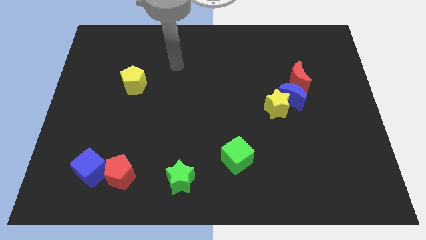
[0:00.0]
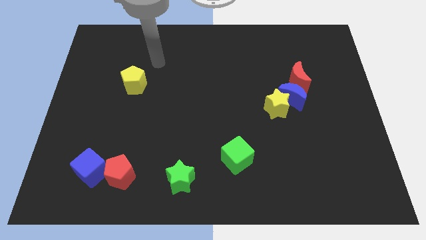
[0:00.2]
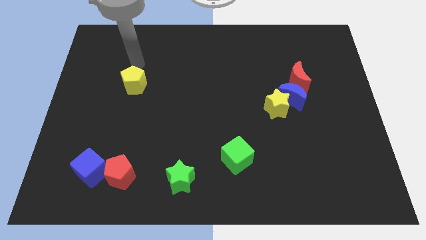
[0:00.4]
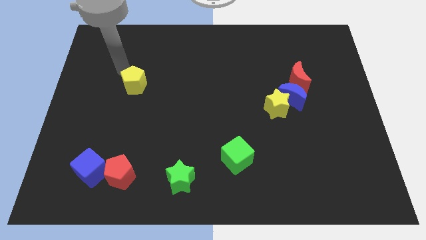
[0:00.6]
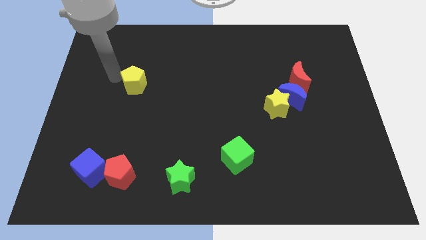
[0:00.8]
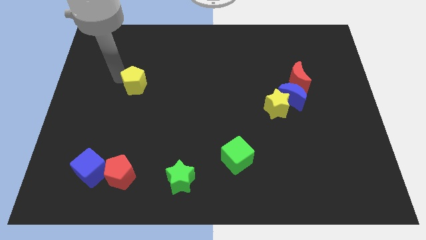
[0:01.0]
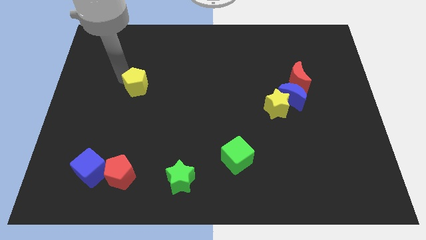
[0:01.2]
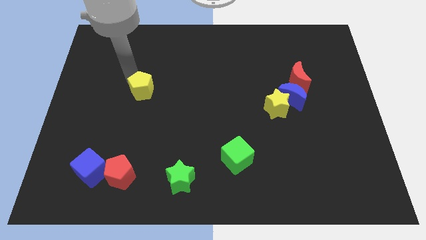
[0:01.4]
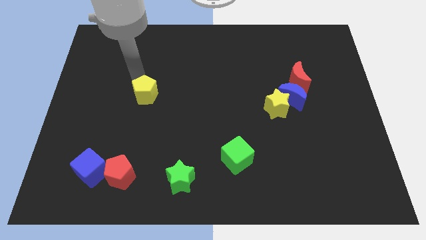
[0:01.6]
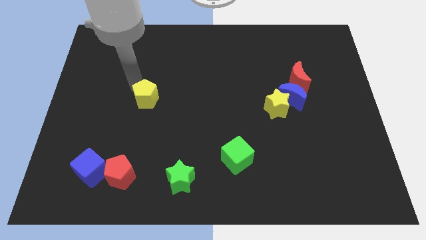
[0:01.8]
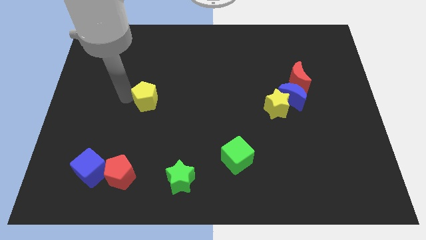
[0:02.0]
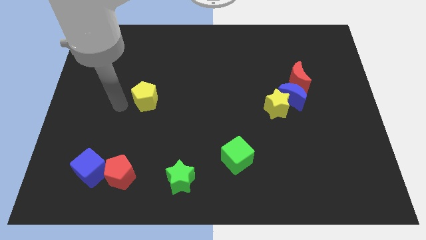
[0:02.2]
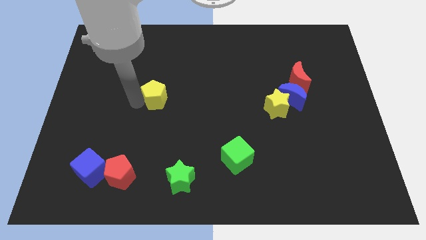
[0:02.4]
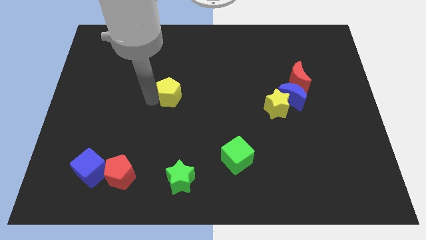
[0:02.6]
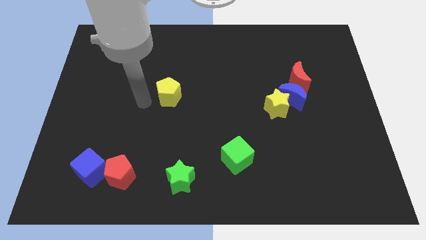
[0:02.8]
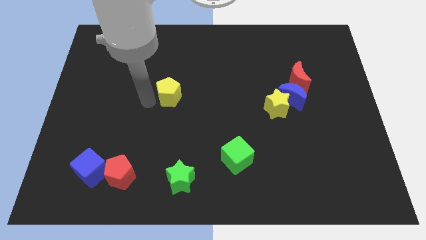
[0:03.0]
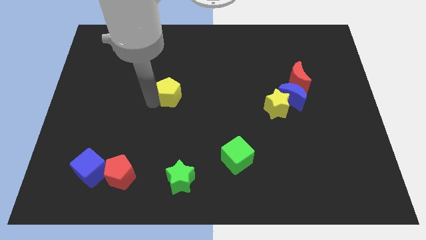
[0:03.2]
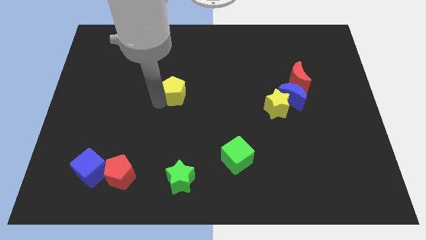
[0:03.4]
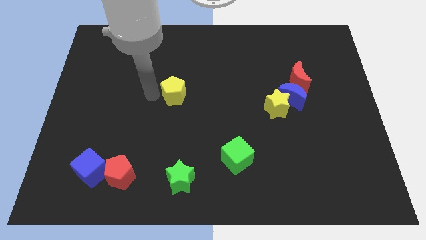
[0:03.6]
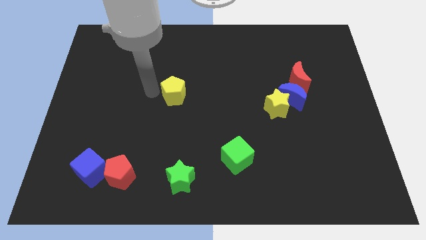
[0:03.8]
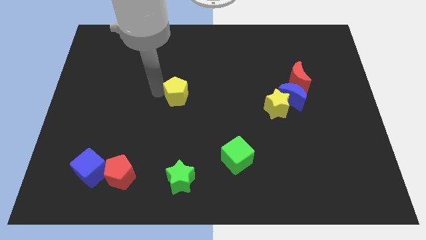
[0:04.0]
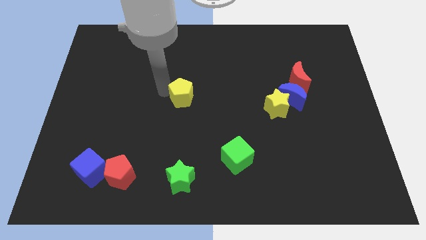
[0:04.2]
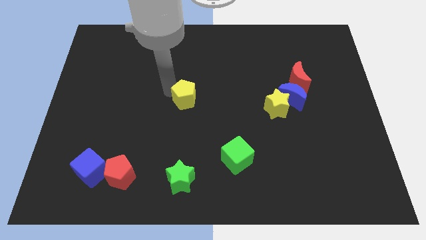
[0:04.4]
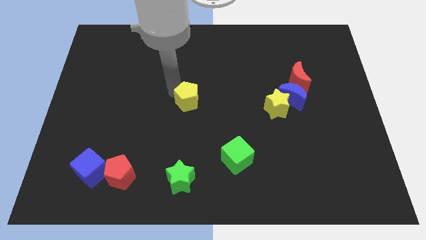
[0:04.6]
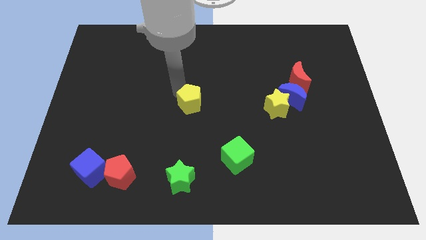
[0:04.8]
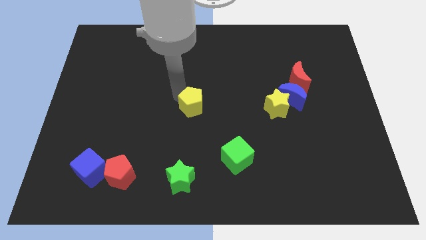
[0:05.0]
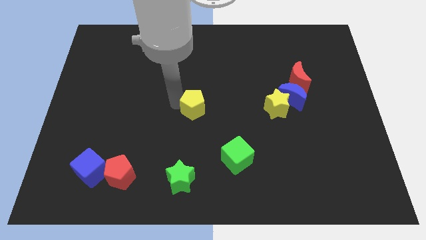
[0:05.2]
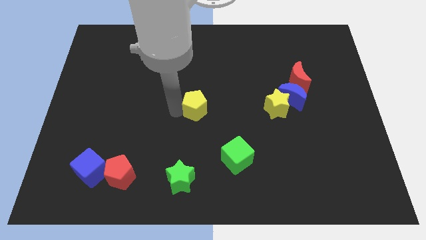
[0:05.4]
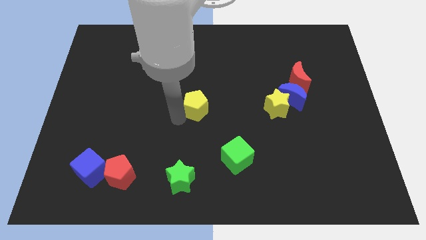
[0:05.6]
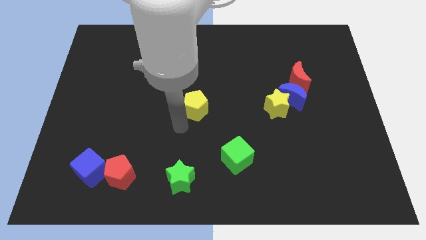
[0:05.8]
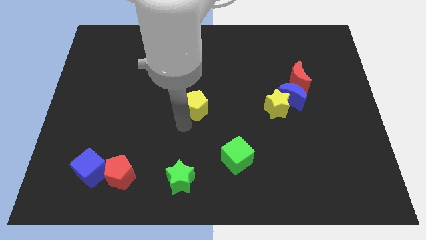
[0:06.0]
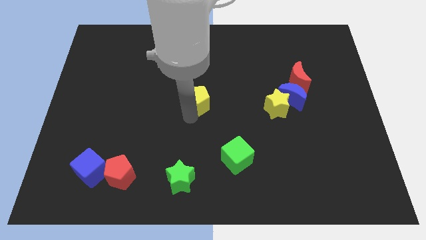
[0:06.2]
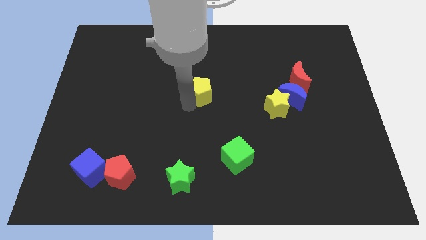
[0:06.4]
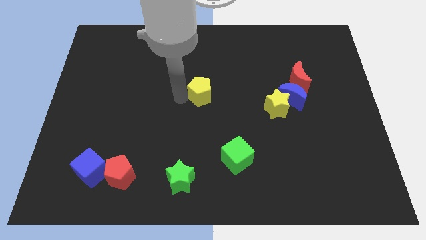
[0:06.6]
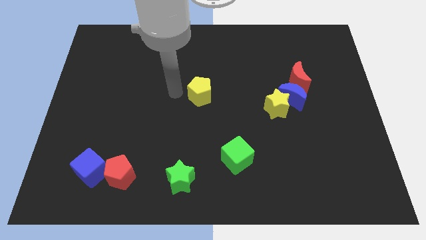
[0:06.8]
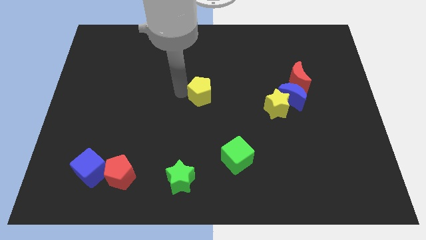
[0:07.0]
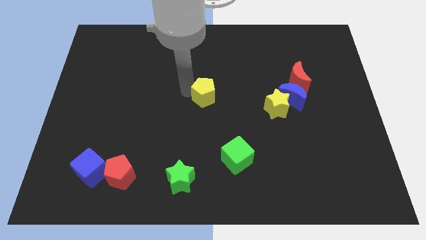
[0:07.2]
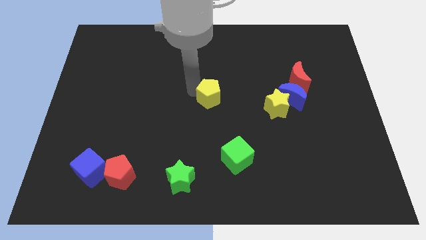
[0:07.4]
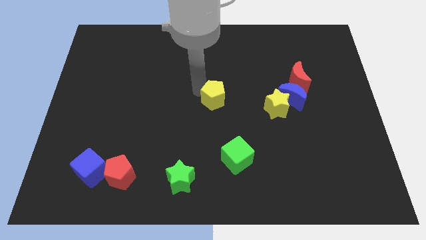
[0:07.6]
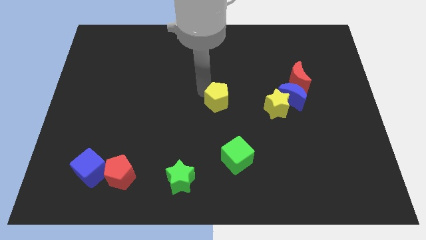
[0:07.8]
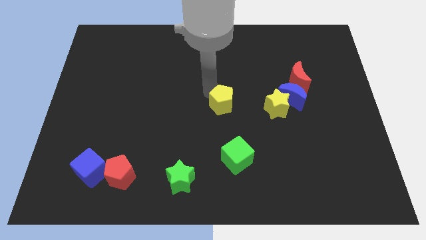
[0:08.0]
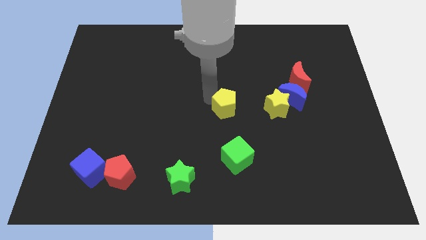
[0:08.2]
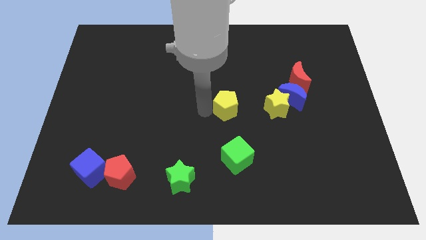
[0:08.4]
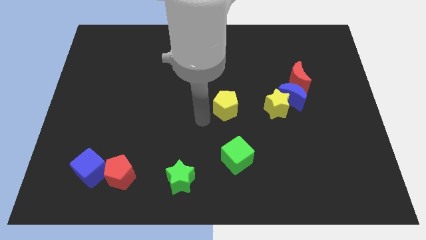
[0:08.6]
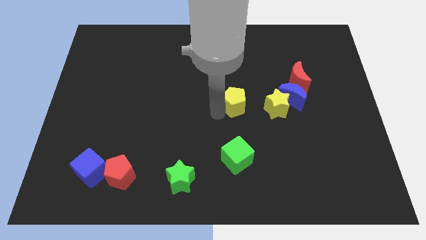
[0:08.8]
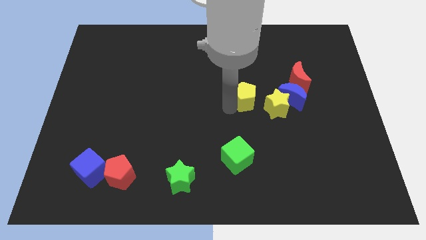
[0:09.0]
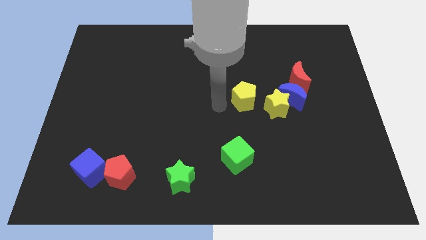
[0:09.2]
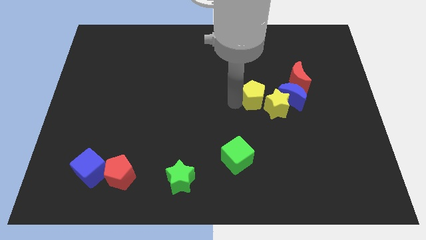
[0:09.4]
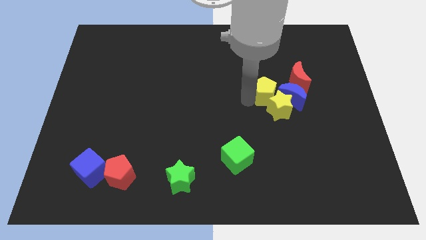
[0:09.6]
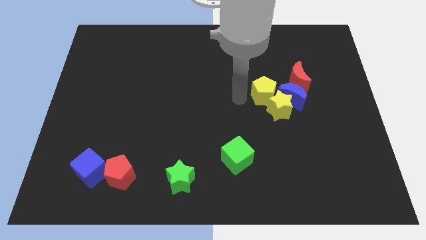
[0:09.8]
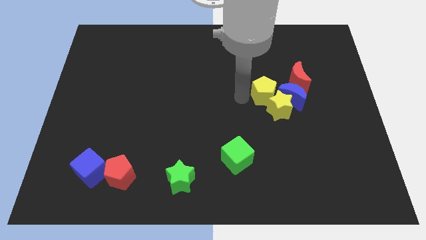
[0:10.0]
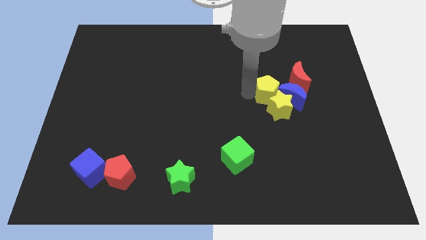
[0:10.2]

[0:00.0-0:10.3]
put the yellow pentagon next to the blue moon

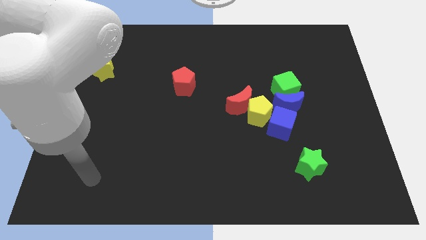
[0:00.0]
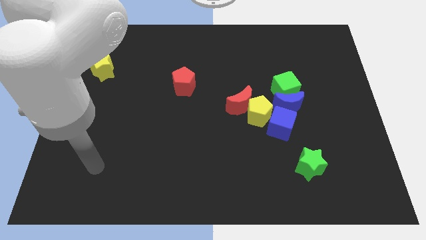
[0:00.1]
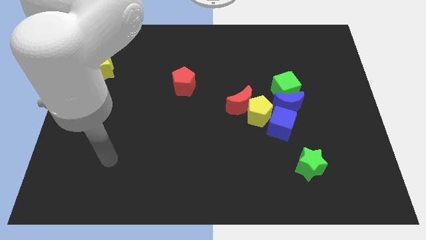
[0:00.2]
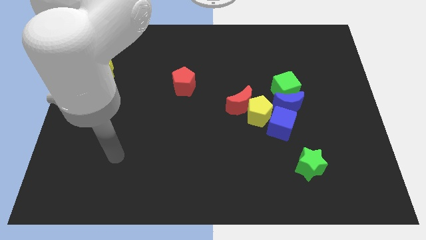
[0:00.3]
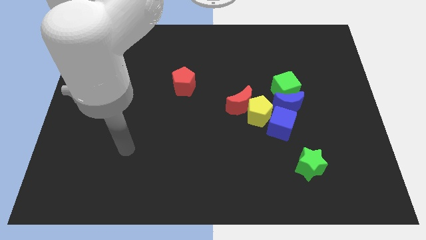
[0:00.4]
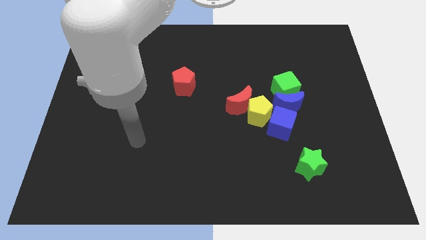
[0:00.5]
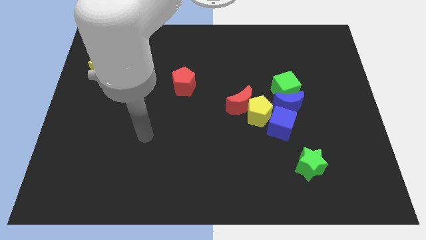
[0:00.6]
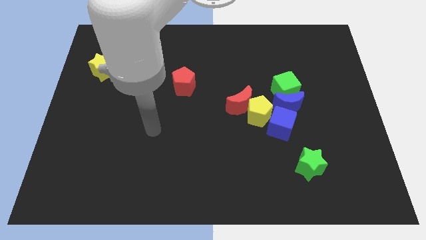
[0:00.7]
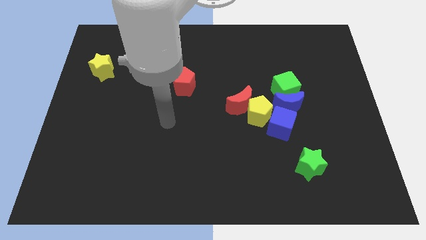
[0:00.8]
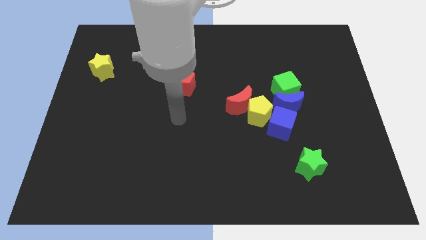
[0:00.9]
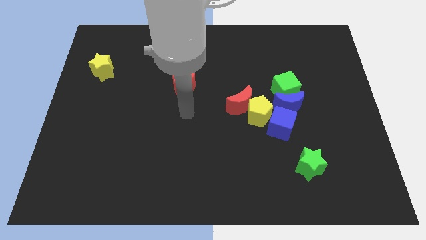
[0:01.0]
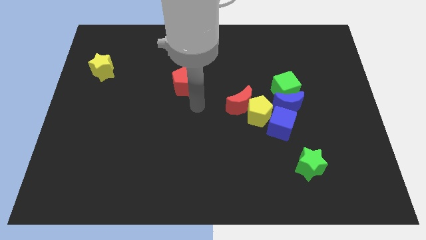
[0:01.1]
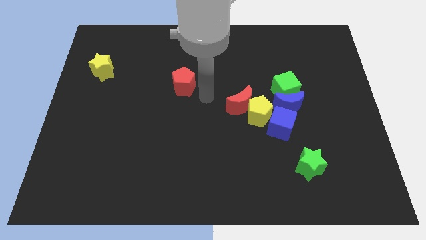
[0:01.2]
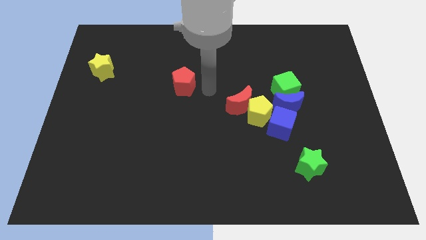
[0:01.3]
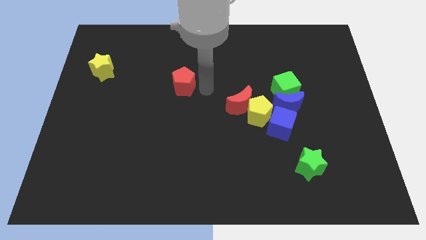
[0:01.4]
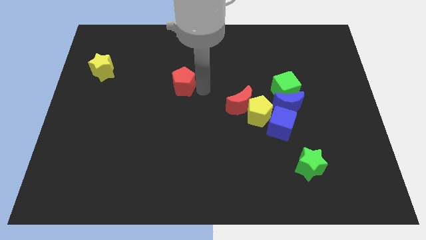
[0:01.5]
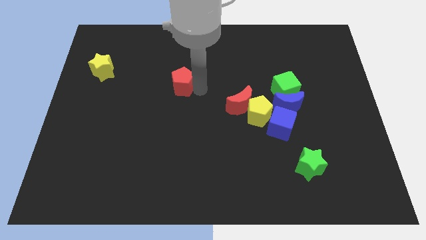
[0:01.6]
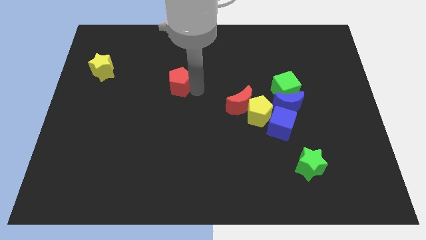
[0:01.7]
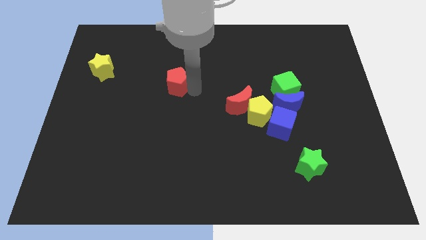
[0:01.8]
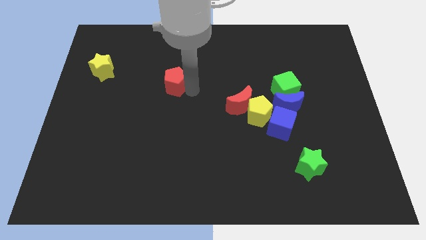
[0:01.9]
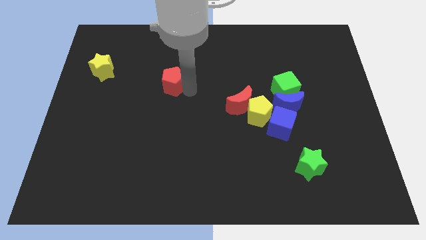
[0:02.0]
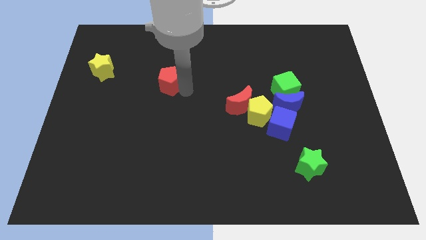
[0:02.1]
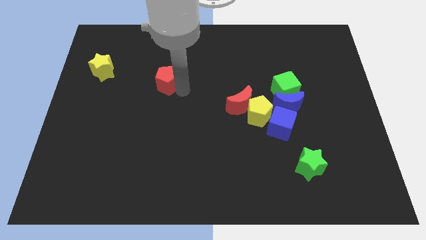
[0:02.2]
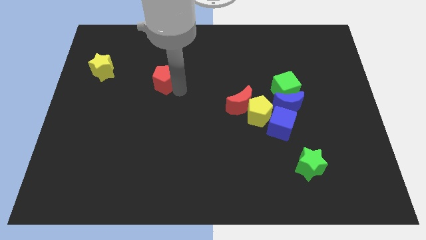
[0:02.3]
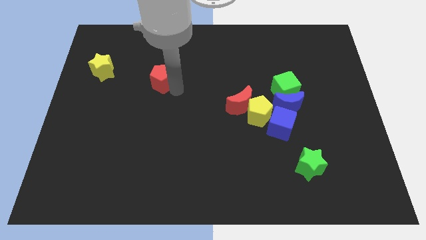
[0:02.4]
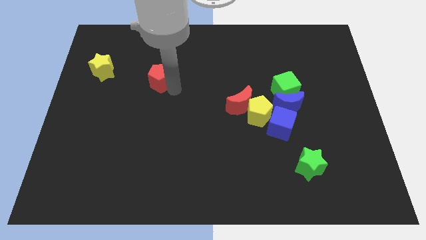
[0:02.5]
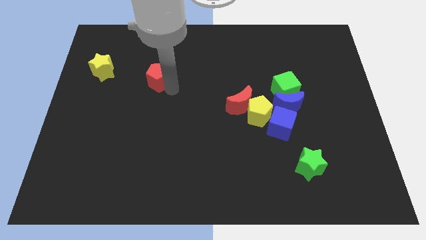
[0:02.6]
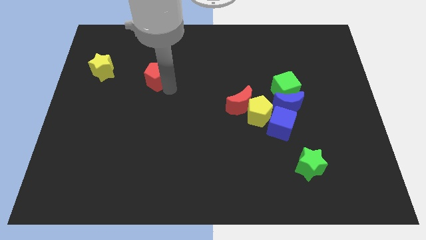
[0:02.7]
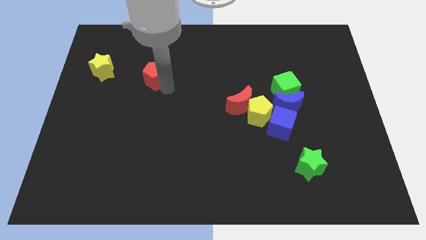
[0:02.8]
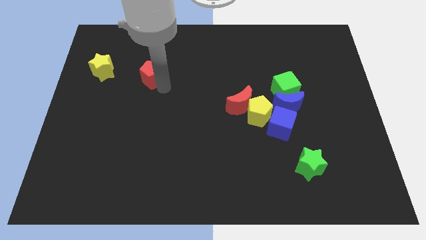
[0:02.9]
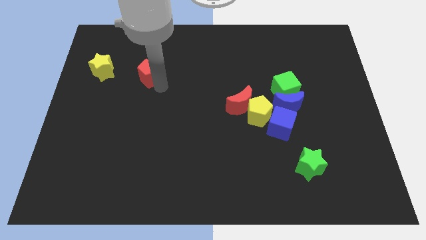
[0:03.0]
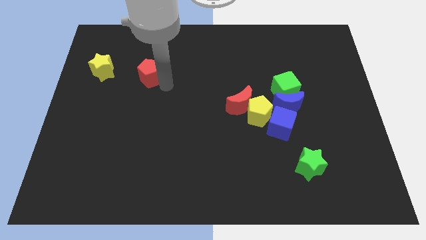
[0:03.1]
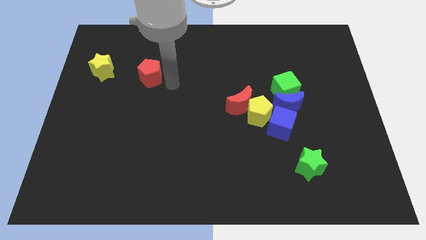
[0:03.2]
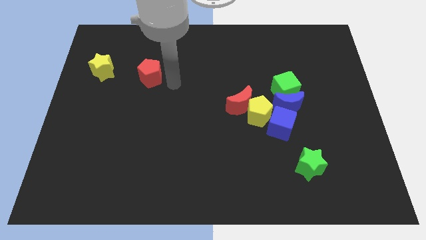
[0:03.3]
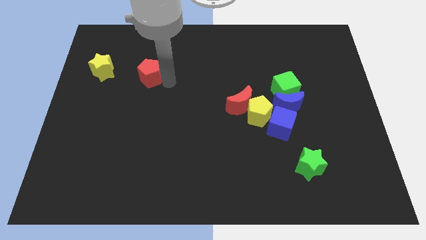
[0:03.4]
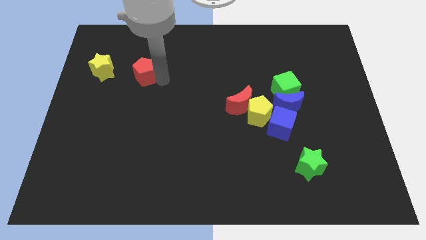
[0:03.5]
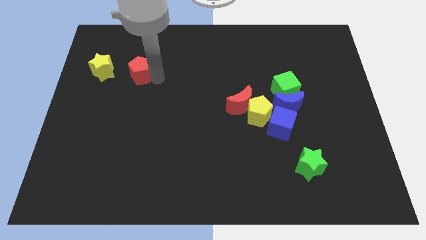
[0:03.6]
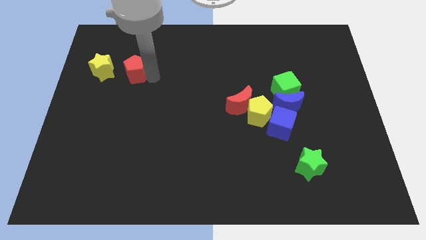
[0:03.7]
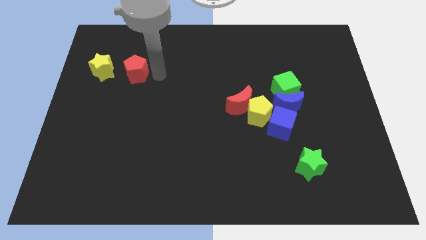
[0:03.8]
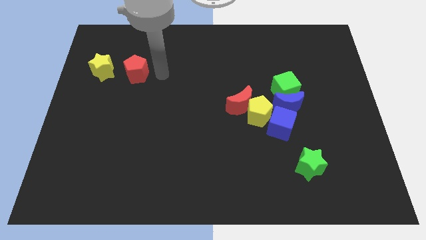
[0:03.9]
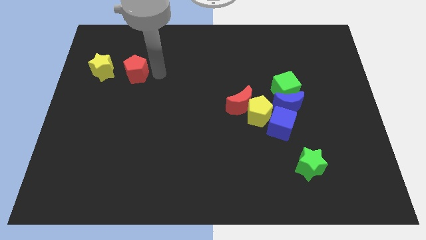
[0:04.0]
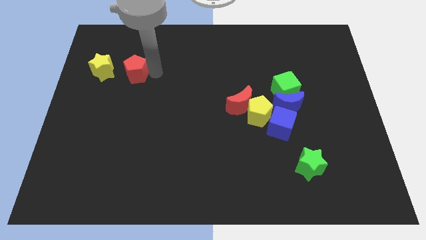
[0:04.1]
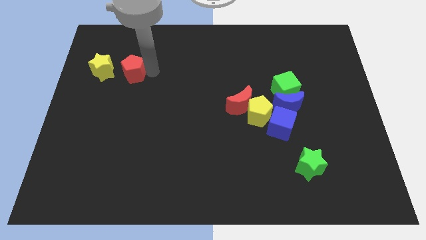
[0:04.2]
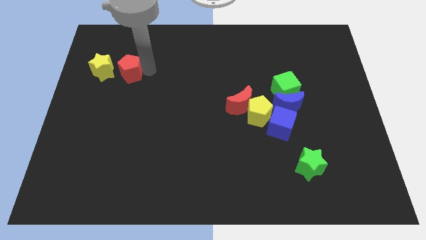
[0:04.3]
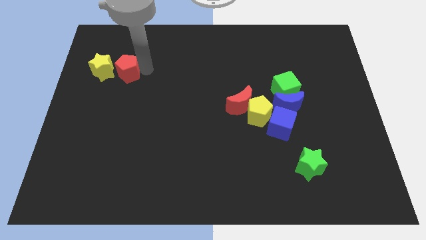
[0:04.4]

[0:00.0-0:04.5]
move the red pentagon towards the yellow star
